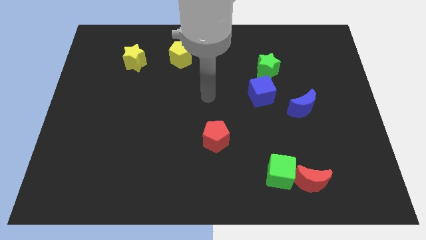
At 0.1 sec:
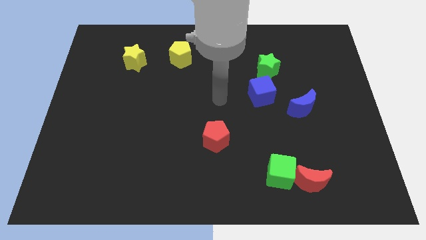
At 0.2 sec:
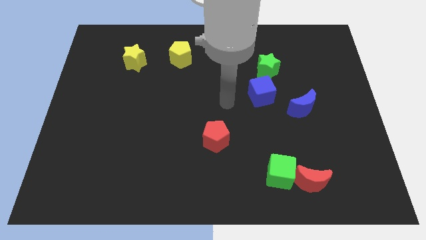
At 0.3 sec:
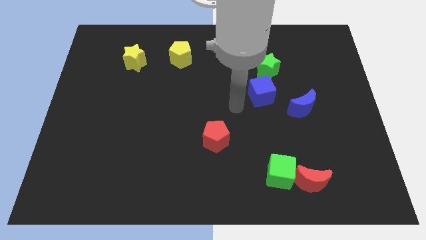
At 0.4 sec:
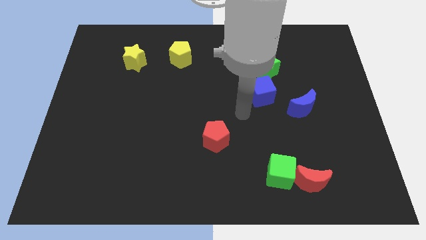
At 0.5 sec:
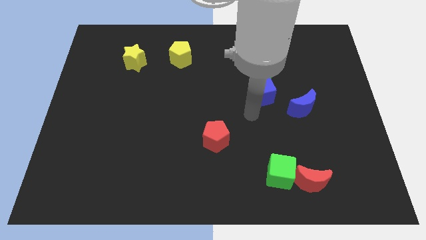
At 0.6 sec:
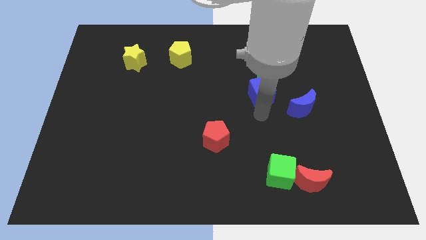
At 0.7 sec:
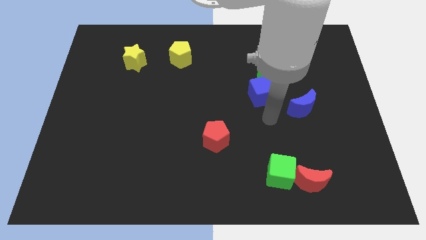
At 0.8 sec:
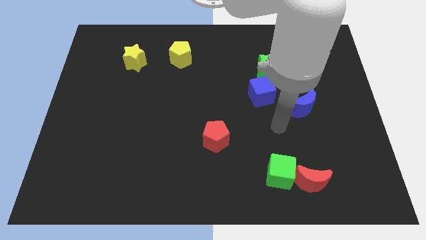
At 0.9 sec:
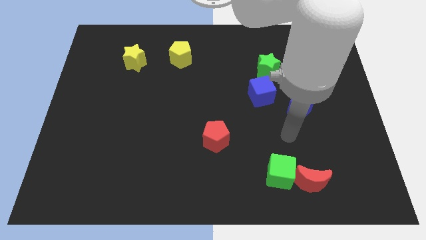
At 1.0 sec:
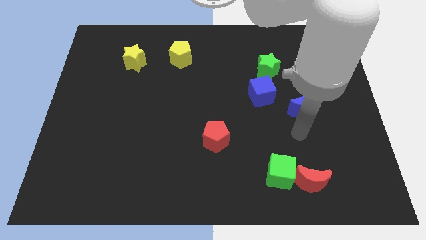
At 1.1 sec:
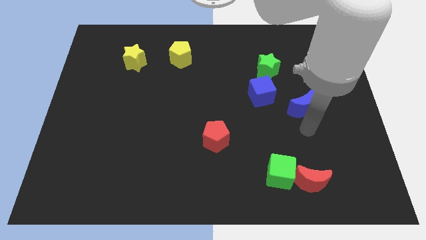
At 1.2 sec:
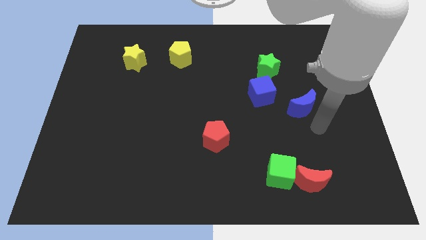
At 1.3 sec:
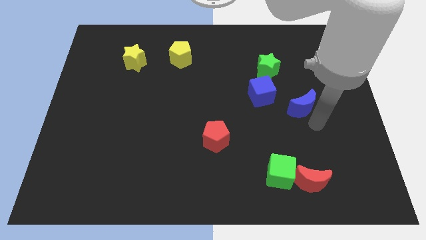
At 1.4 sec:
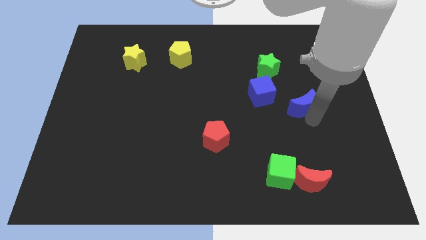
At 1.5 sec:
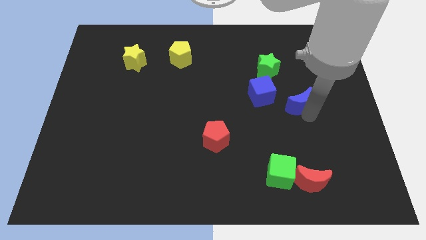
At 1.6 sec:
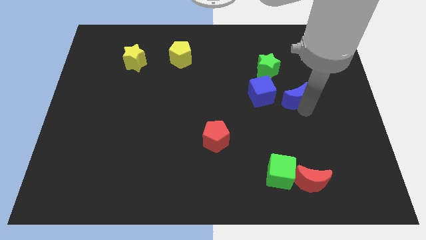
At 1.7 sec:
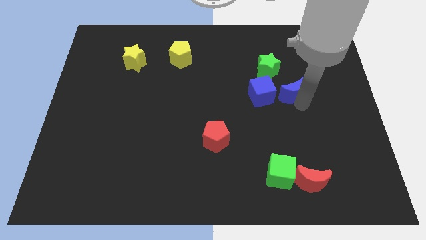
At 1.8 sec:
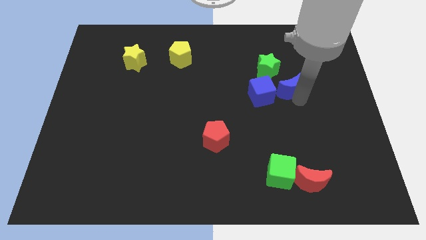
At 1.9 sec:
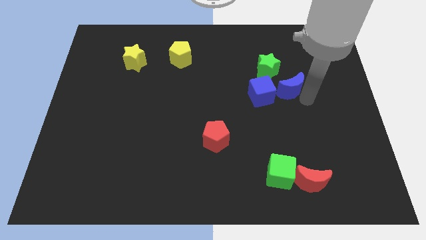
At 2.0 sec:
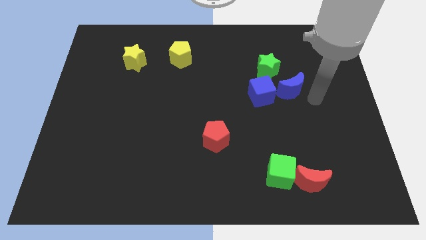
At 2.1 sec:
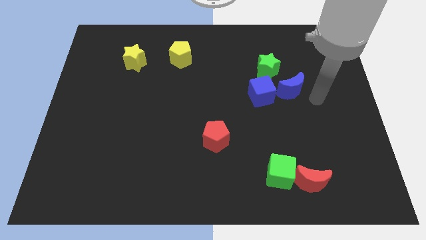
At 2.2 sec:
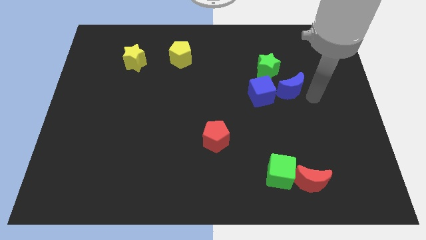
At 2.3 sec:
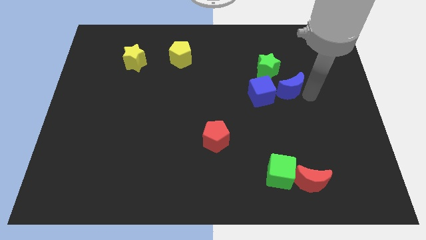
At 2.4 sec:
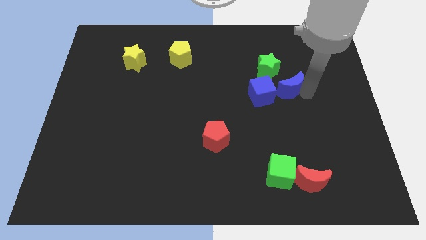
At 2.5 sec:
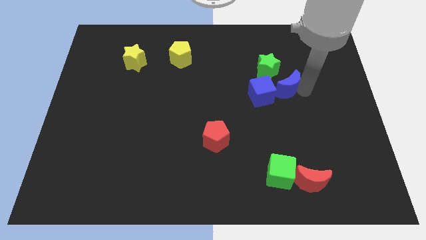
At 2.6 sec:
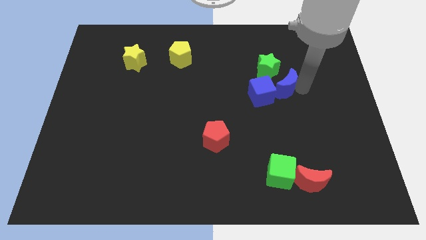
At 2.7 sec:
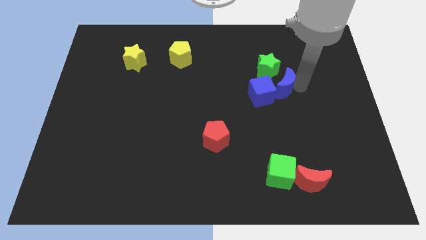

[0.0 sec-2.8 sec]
push the blue moon slightly diagonally upwards and left

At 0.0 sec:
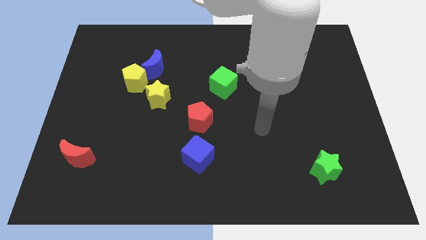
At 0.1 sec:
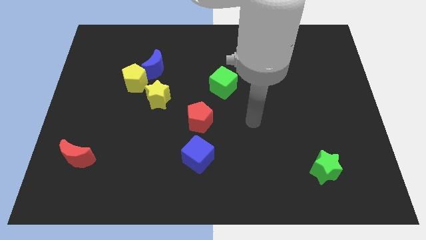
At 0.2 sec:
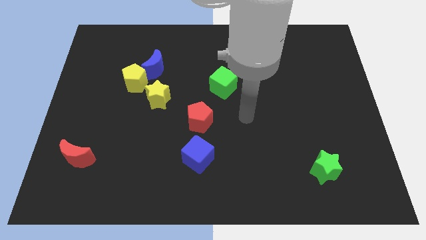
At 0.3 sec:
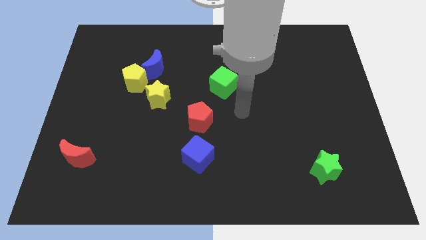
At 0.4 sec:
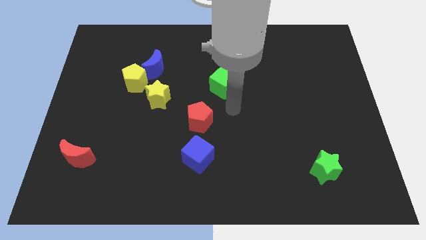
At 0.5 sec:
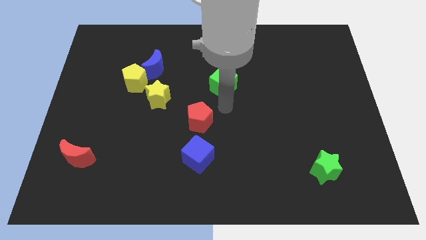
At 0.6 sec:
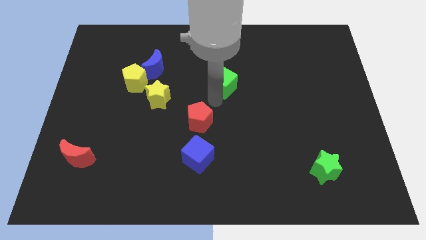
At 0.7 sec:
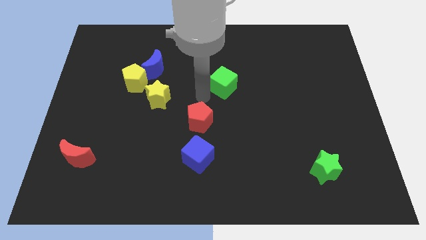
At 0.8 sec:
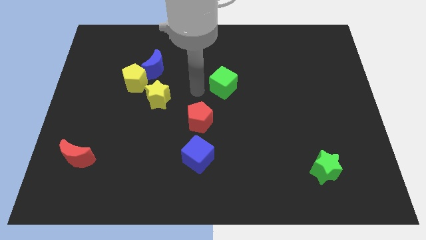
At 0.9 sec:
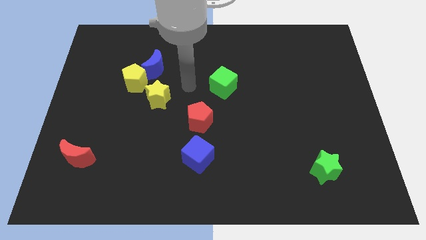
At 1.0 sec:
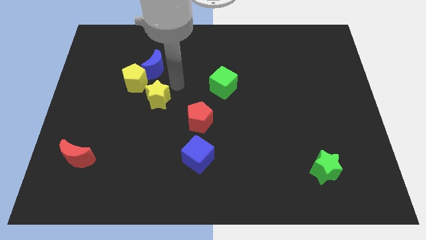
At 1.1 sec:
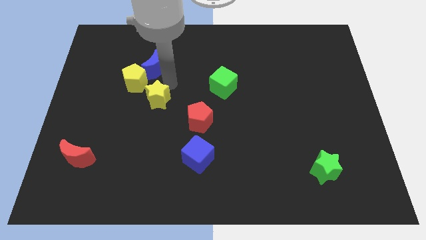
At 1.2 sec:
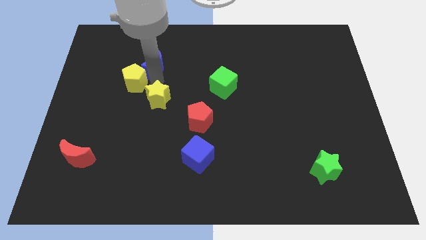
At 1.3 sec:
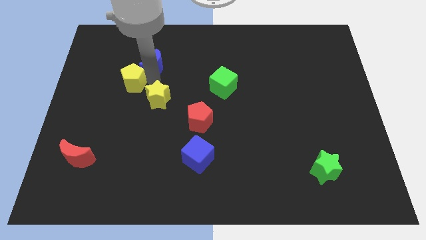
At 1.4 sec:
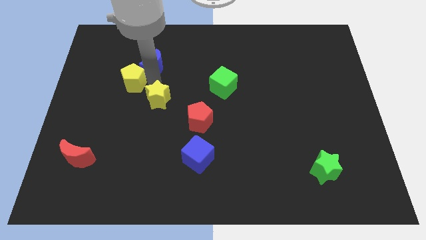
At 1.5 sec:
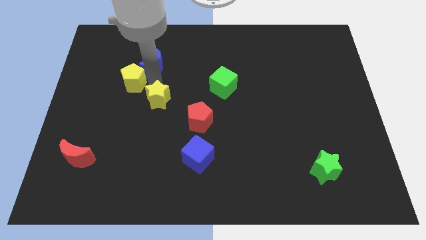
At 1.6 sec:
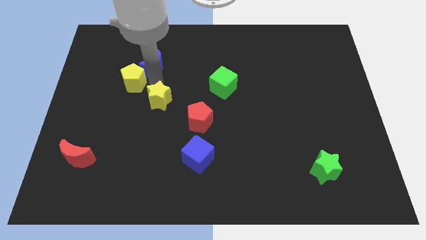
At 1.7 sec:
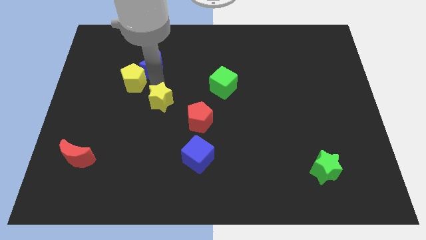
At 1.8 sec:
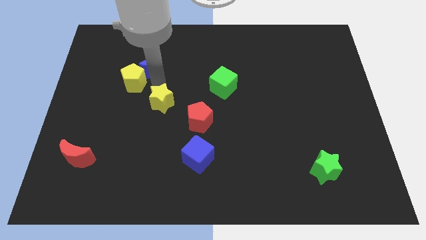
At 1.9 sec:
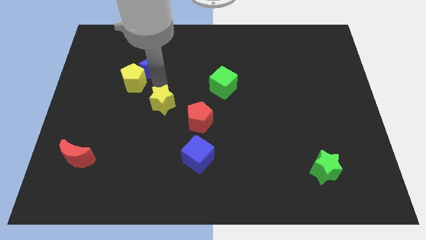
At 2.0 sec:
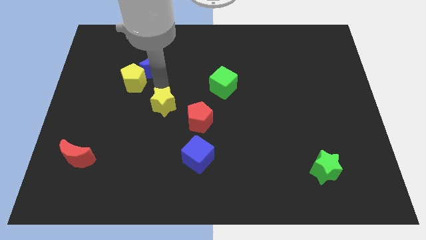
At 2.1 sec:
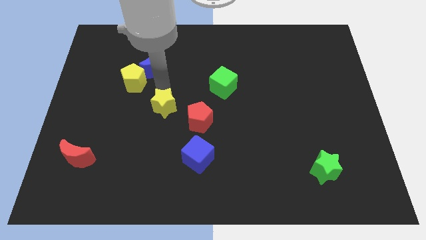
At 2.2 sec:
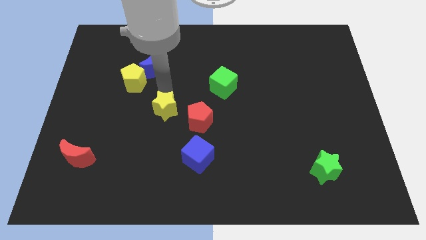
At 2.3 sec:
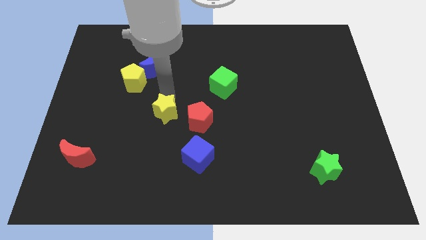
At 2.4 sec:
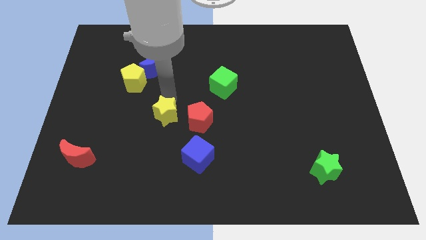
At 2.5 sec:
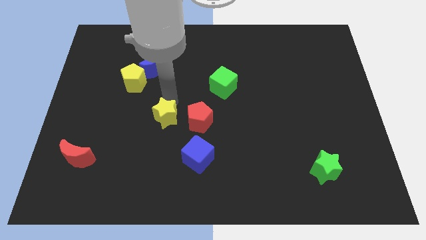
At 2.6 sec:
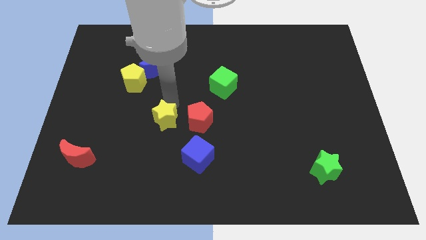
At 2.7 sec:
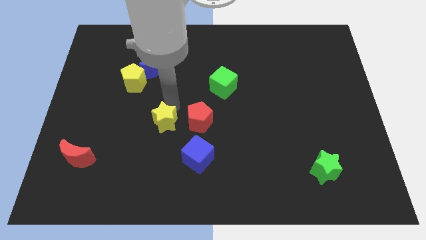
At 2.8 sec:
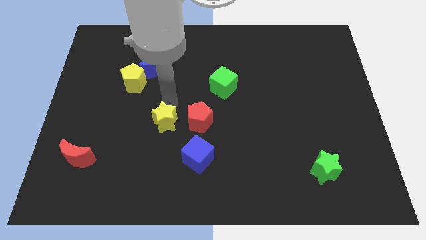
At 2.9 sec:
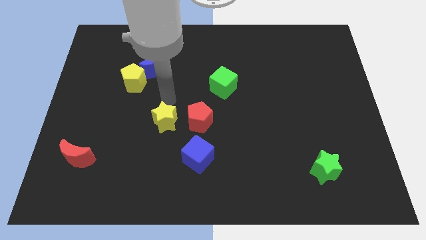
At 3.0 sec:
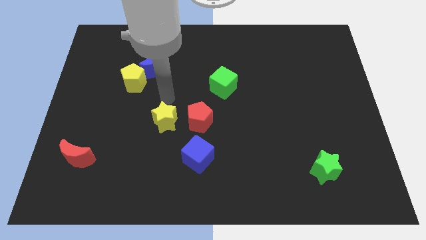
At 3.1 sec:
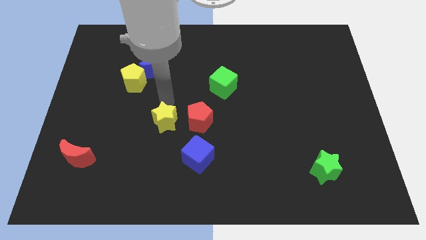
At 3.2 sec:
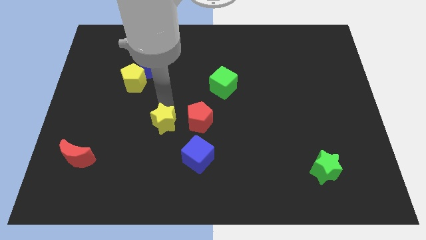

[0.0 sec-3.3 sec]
slide the yellow star slightly downwards

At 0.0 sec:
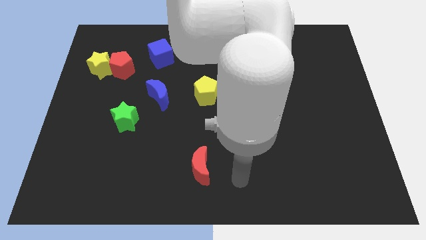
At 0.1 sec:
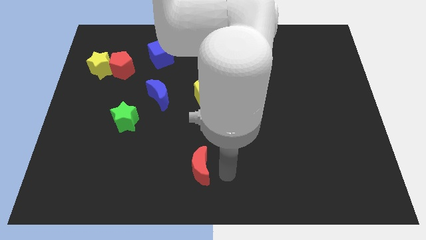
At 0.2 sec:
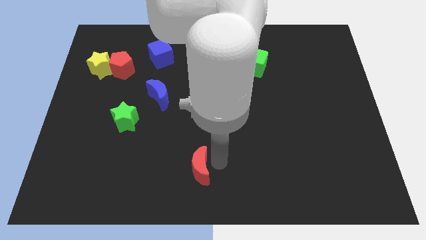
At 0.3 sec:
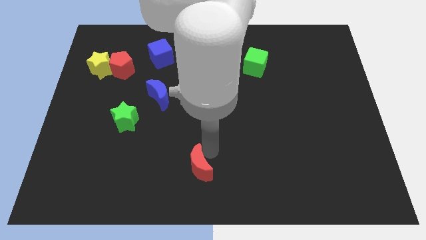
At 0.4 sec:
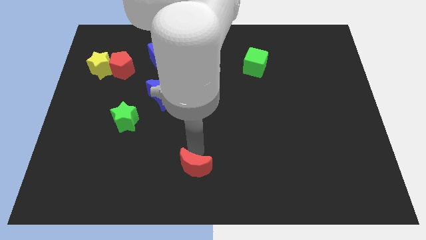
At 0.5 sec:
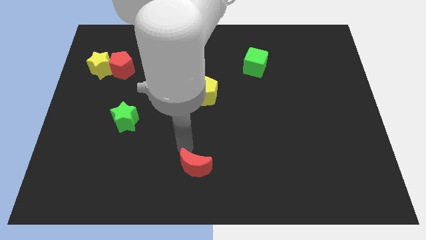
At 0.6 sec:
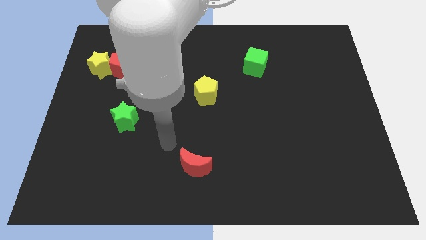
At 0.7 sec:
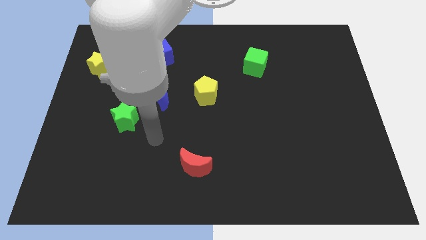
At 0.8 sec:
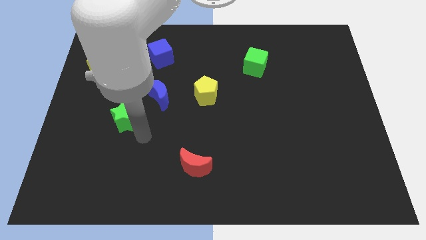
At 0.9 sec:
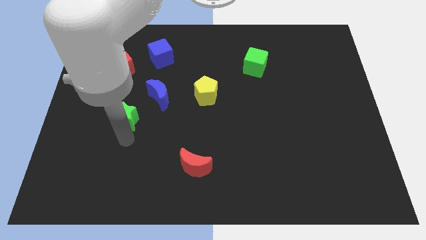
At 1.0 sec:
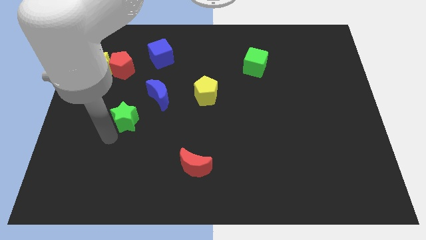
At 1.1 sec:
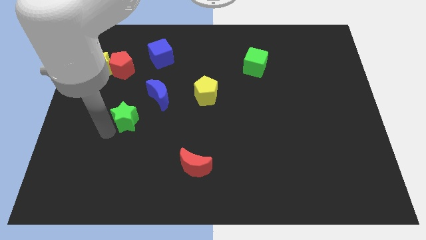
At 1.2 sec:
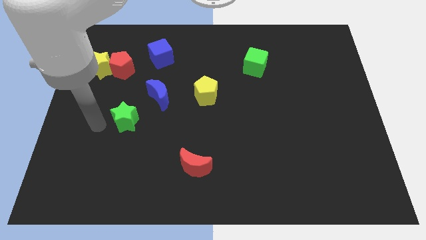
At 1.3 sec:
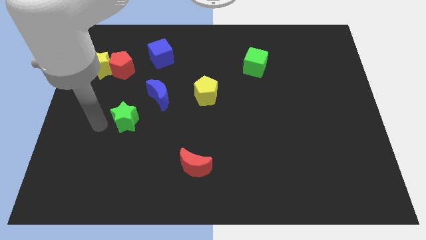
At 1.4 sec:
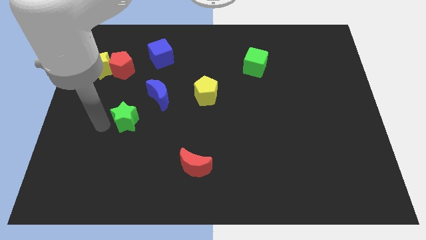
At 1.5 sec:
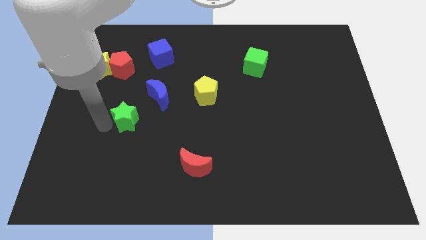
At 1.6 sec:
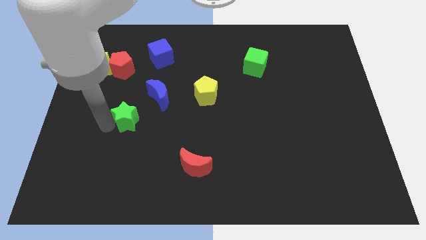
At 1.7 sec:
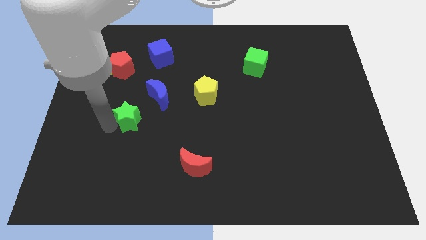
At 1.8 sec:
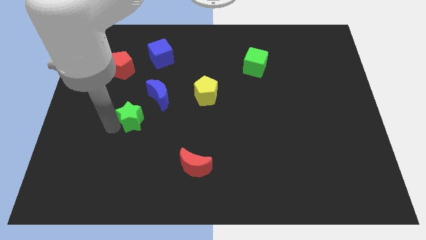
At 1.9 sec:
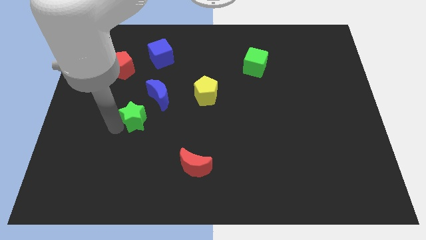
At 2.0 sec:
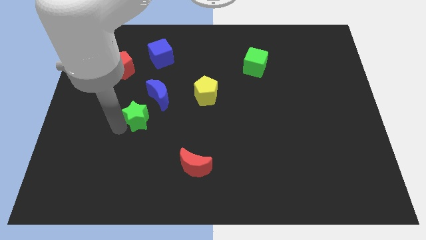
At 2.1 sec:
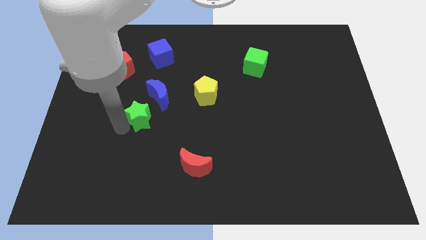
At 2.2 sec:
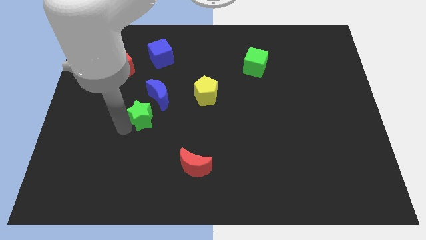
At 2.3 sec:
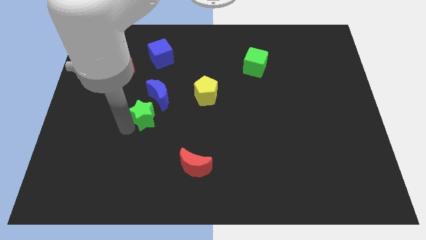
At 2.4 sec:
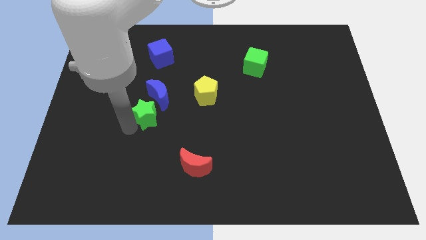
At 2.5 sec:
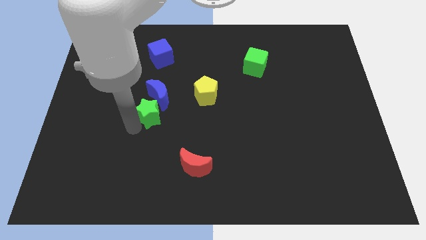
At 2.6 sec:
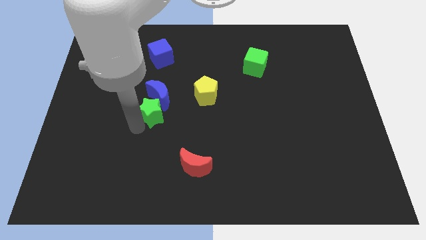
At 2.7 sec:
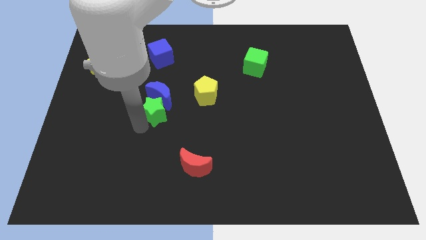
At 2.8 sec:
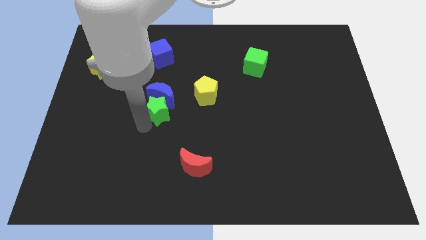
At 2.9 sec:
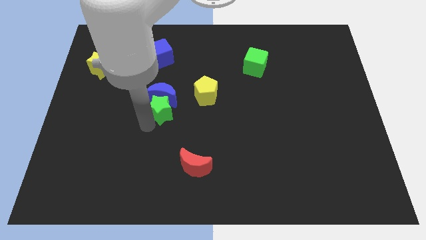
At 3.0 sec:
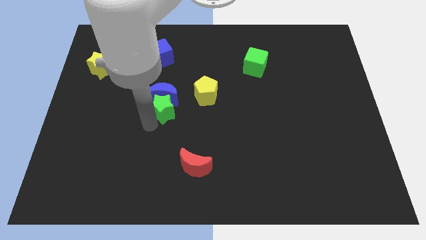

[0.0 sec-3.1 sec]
slide the green star upwards and right slightly
